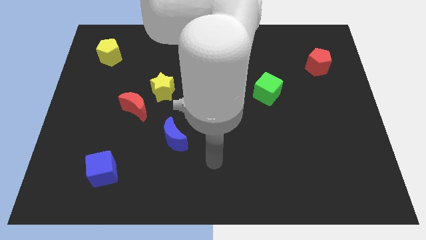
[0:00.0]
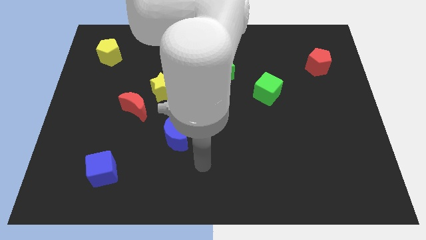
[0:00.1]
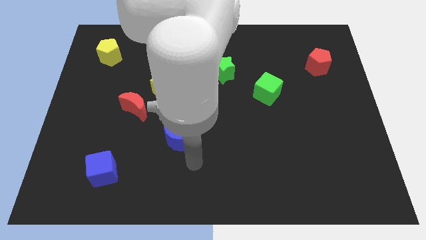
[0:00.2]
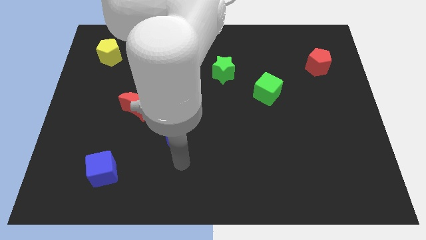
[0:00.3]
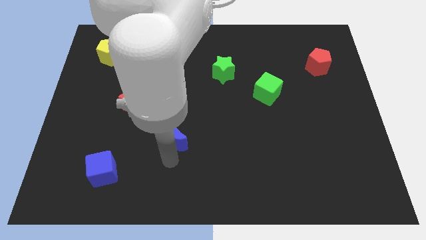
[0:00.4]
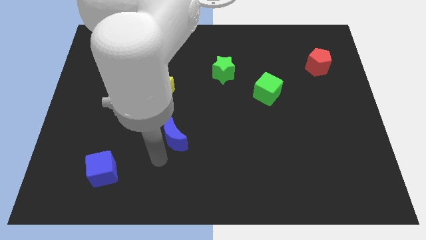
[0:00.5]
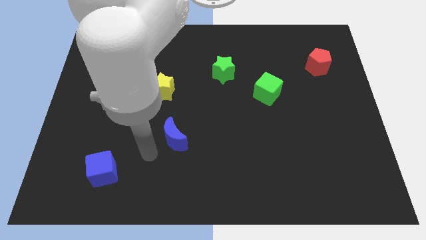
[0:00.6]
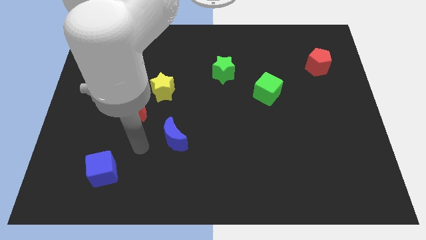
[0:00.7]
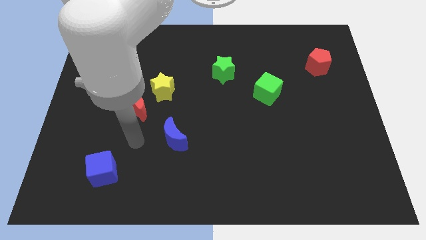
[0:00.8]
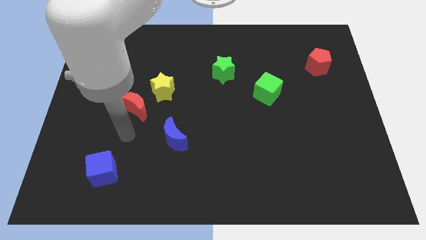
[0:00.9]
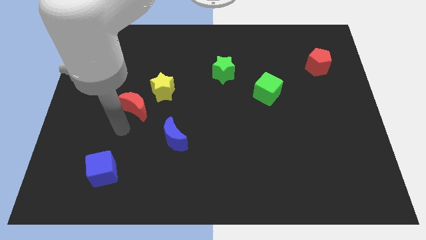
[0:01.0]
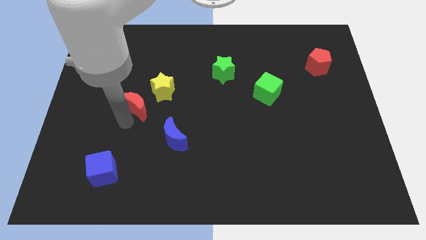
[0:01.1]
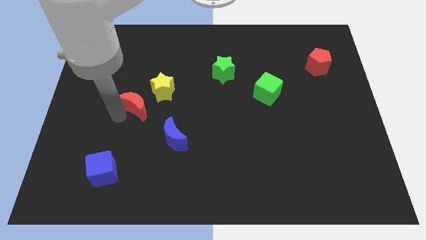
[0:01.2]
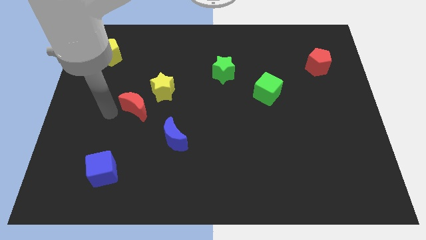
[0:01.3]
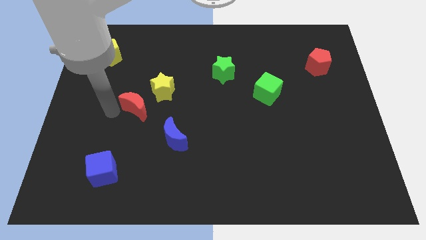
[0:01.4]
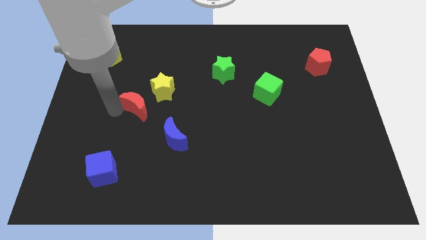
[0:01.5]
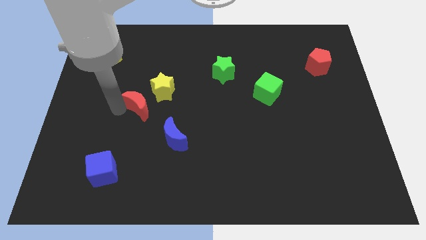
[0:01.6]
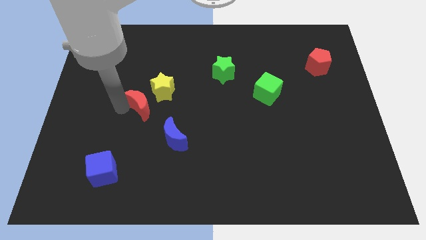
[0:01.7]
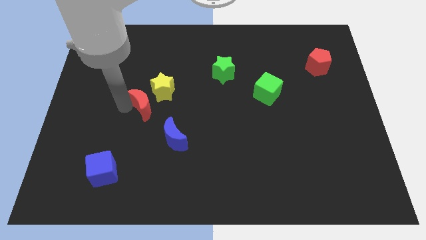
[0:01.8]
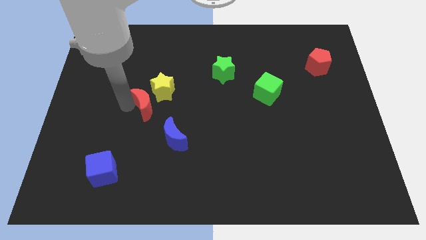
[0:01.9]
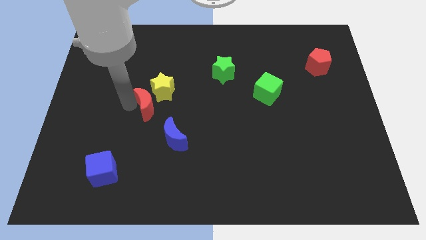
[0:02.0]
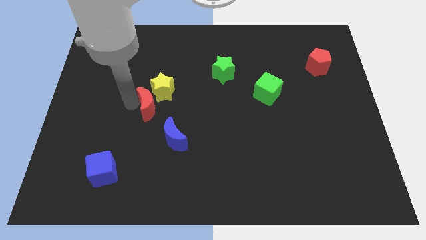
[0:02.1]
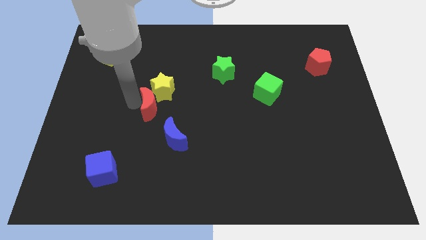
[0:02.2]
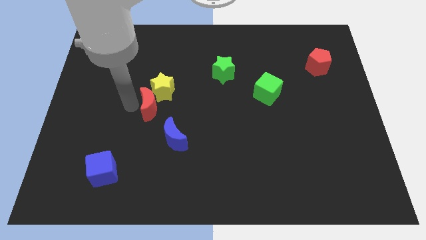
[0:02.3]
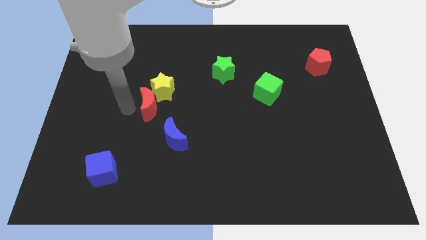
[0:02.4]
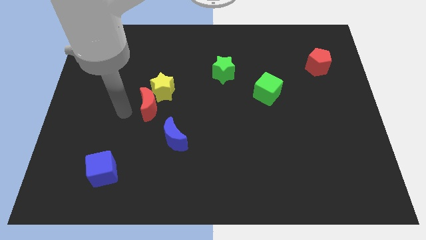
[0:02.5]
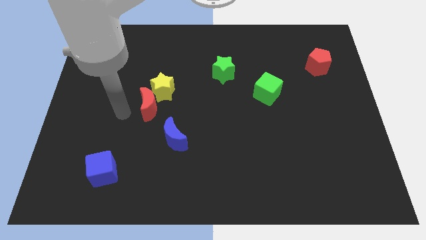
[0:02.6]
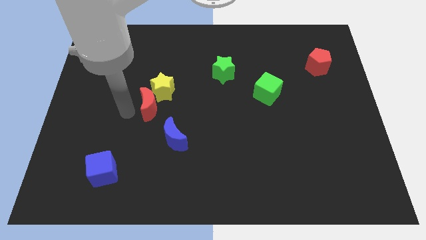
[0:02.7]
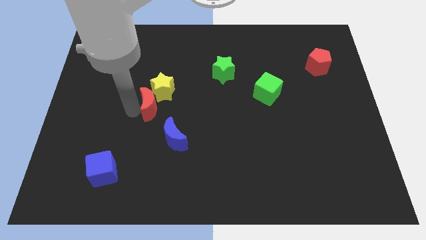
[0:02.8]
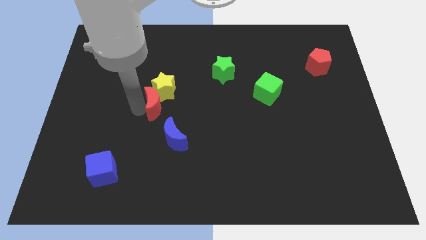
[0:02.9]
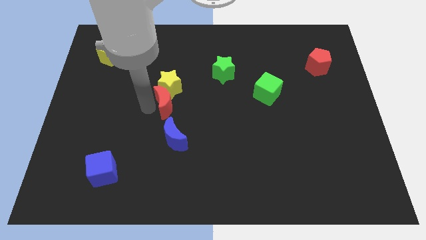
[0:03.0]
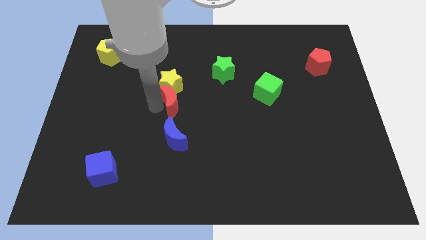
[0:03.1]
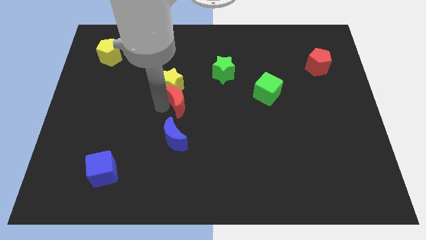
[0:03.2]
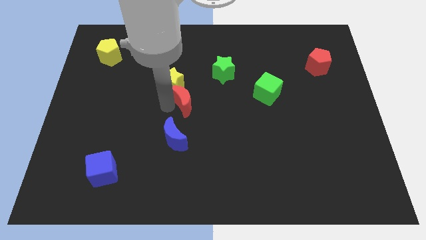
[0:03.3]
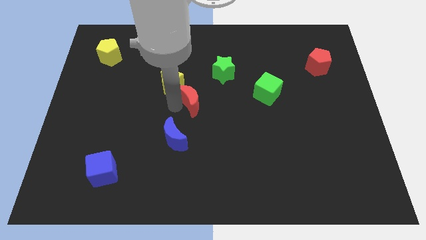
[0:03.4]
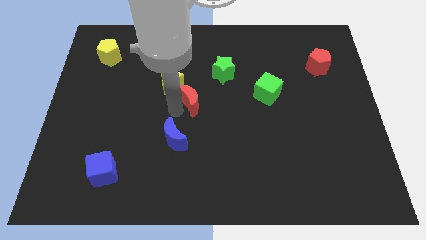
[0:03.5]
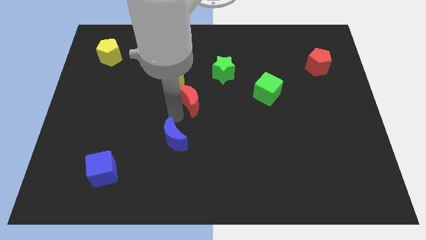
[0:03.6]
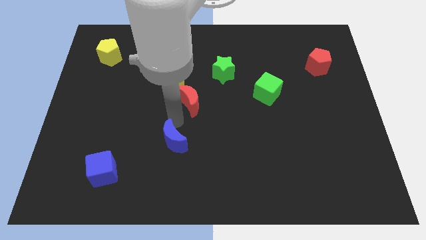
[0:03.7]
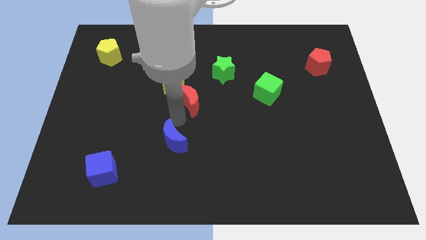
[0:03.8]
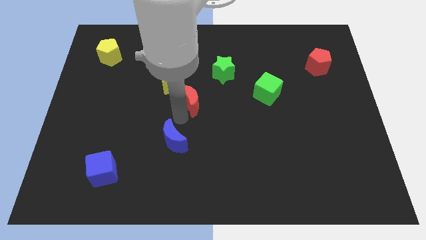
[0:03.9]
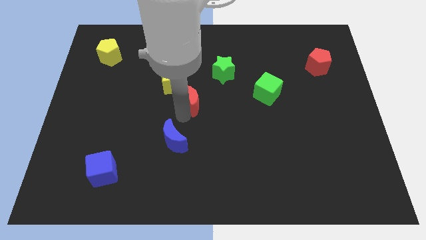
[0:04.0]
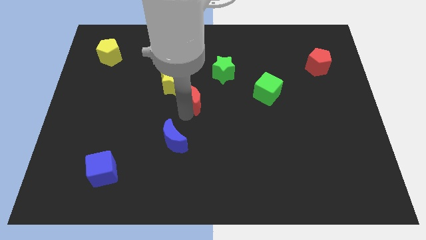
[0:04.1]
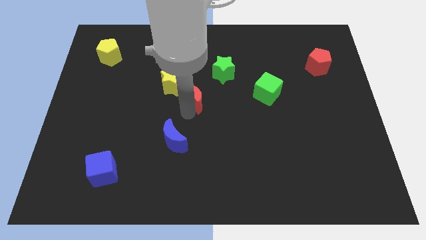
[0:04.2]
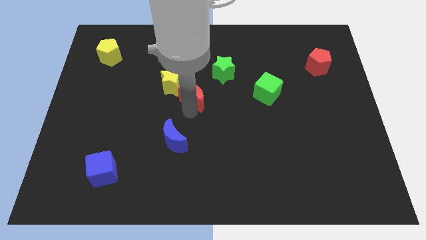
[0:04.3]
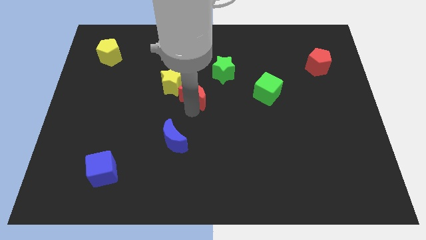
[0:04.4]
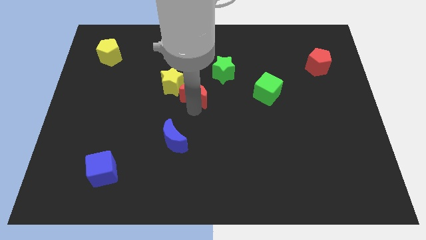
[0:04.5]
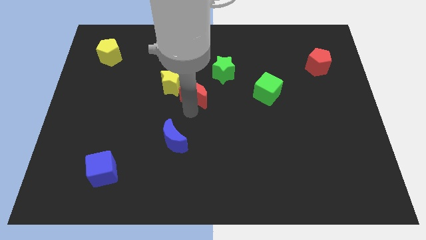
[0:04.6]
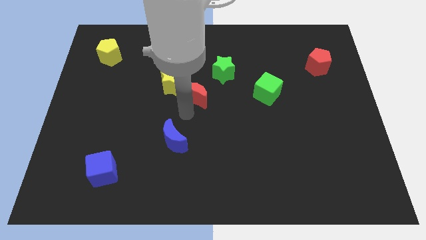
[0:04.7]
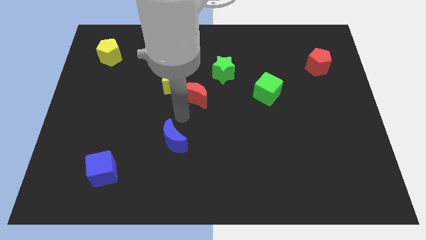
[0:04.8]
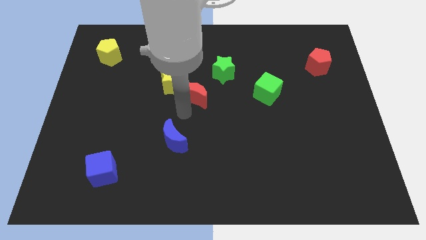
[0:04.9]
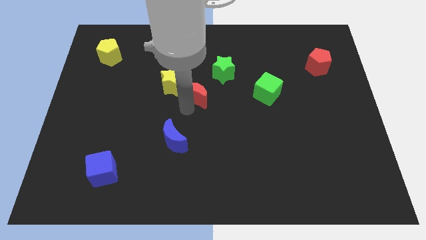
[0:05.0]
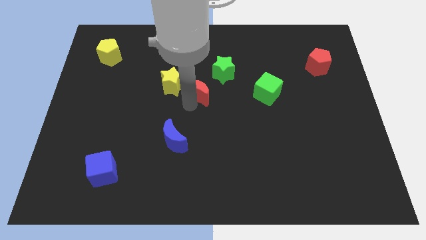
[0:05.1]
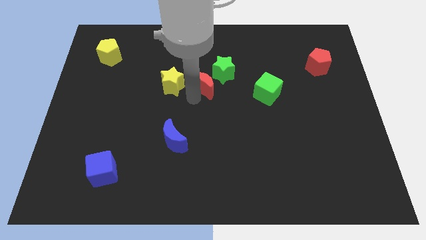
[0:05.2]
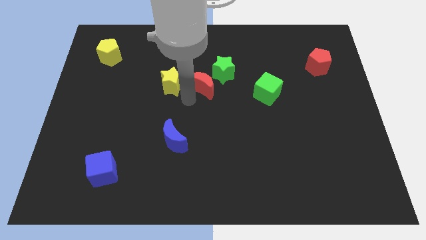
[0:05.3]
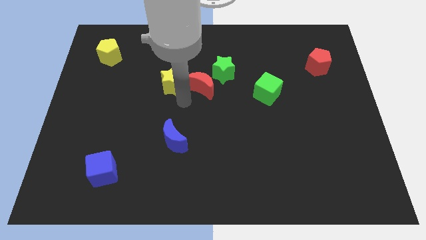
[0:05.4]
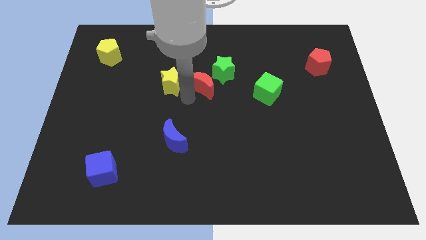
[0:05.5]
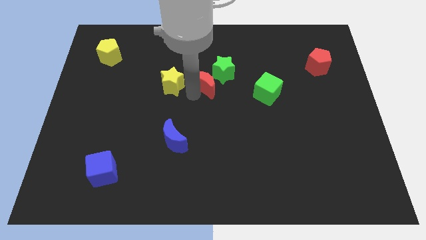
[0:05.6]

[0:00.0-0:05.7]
slide the red moon to the green star
